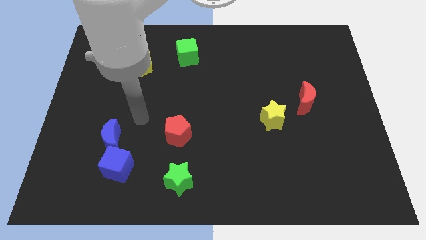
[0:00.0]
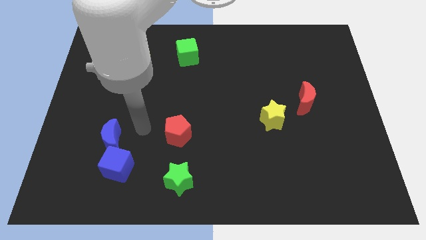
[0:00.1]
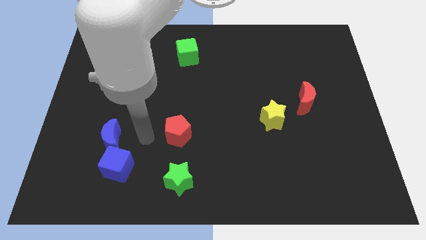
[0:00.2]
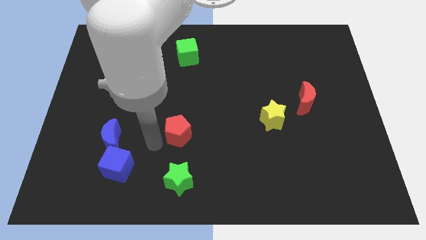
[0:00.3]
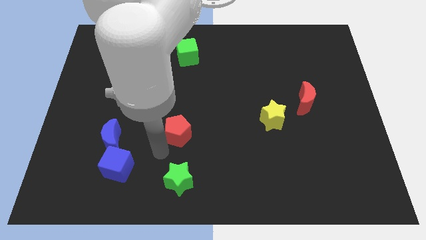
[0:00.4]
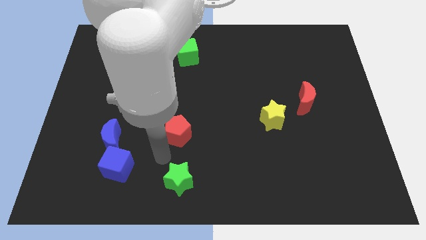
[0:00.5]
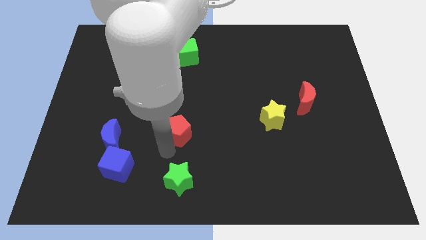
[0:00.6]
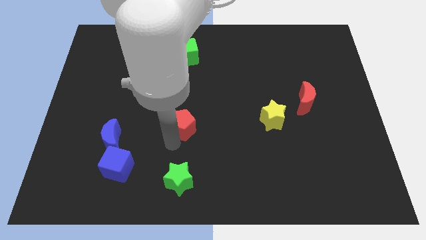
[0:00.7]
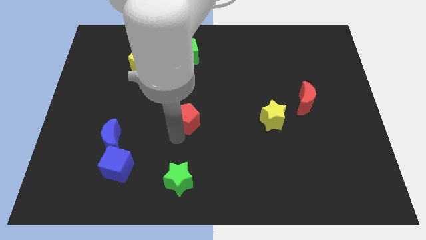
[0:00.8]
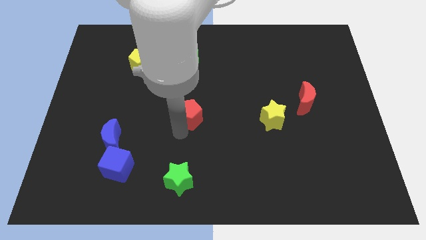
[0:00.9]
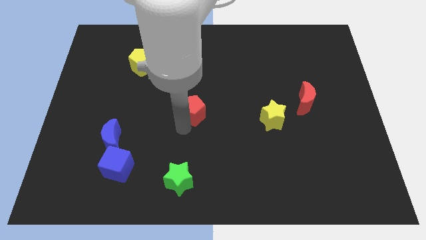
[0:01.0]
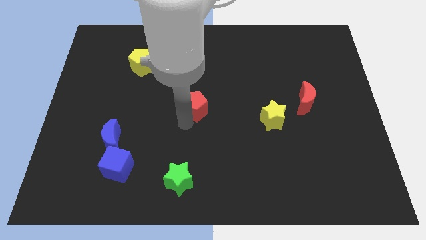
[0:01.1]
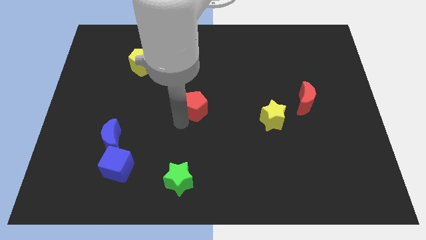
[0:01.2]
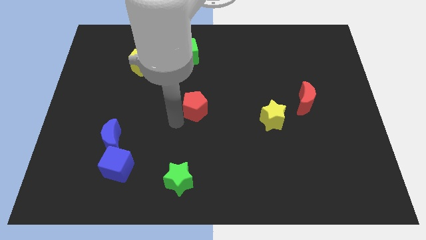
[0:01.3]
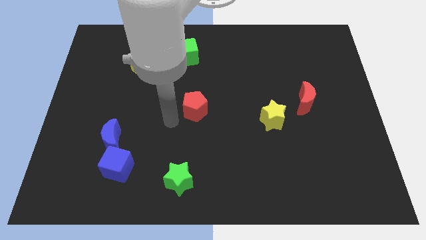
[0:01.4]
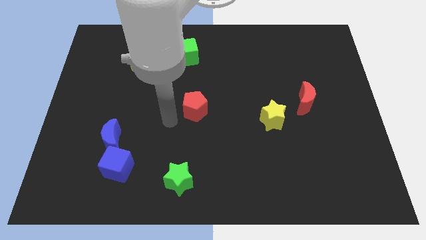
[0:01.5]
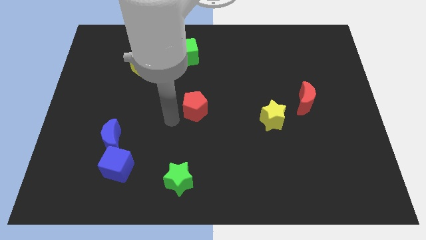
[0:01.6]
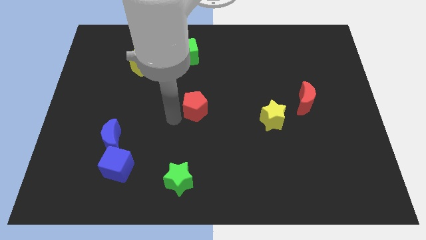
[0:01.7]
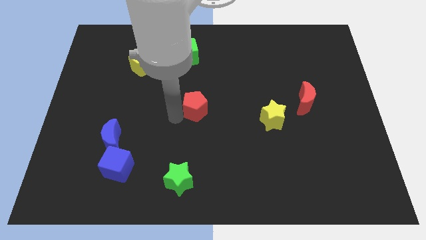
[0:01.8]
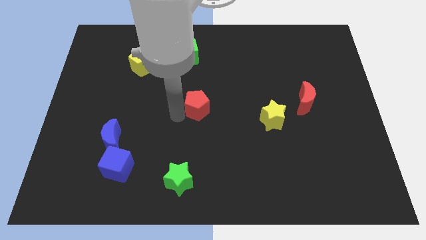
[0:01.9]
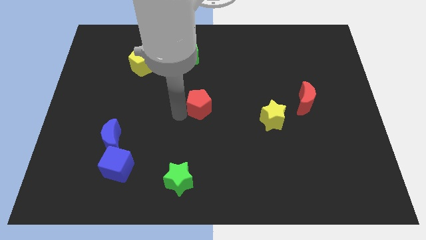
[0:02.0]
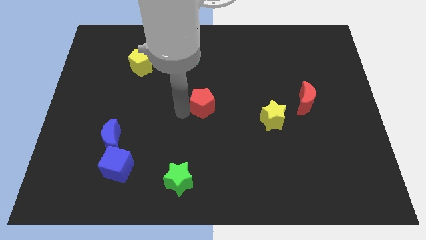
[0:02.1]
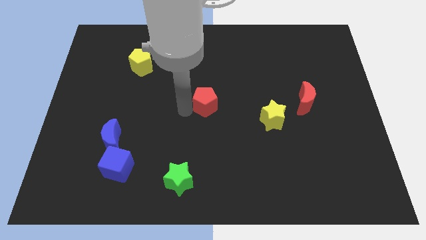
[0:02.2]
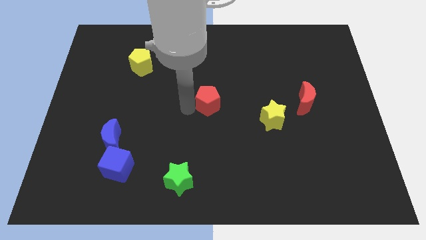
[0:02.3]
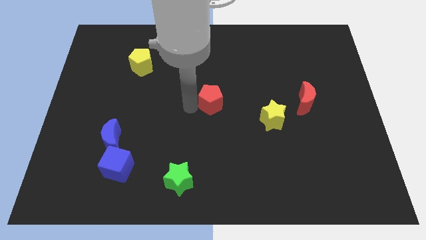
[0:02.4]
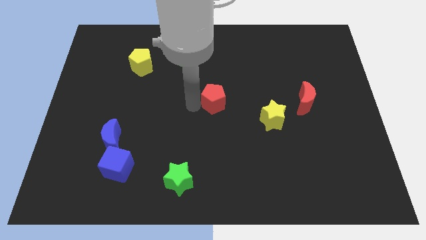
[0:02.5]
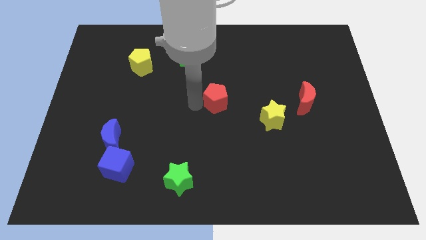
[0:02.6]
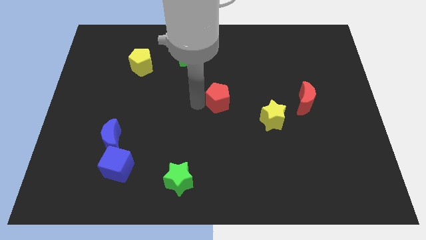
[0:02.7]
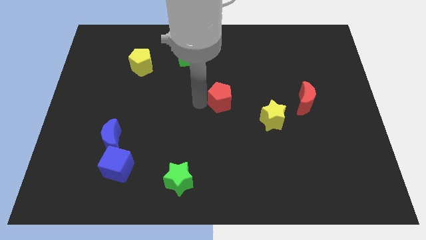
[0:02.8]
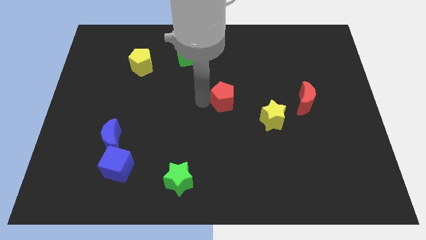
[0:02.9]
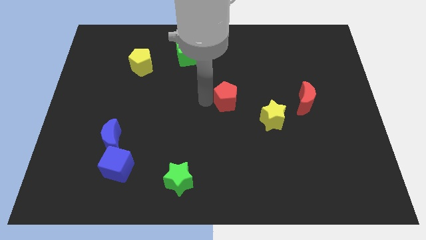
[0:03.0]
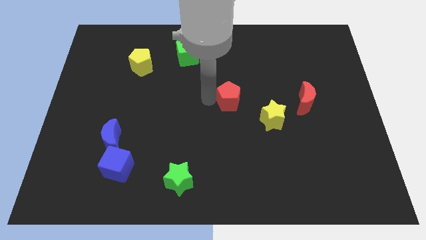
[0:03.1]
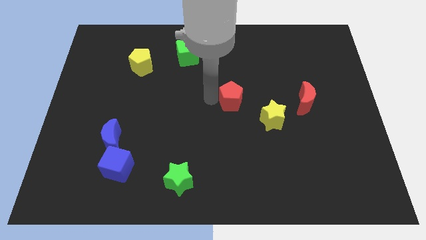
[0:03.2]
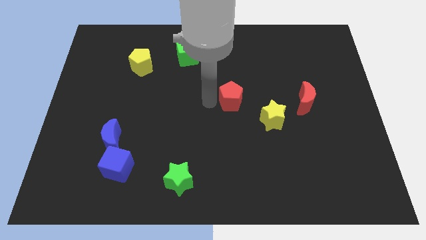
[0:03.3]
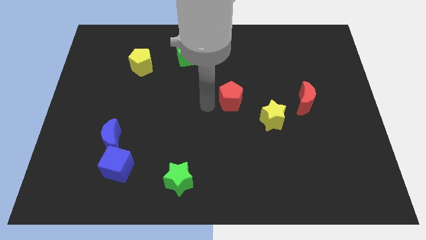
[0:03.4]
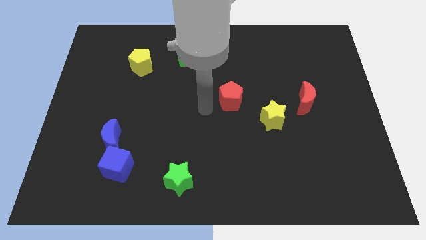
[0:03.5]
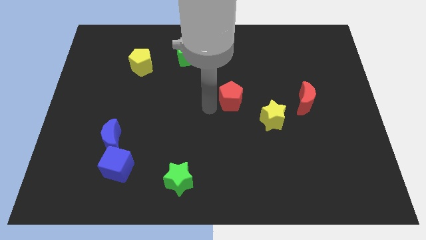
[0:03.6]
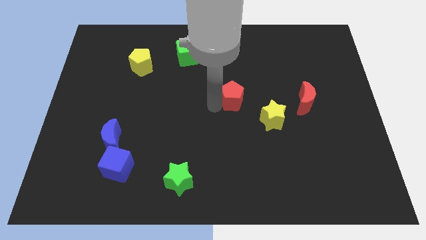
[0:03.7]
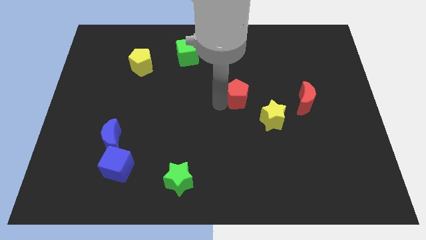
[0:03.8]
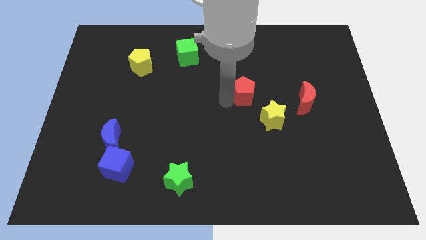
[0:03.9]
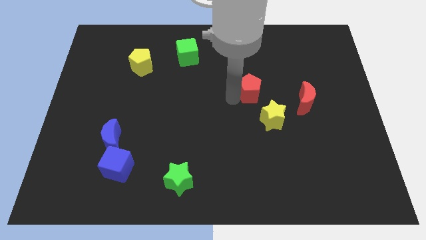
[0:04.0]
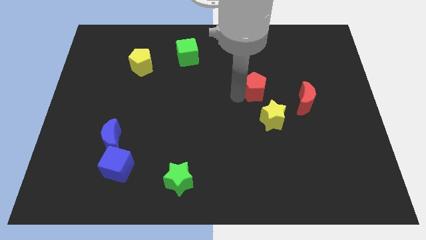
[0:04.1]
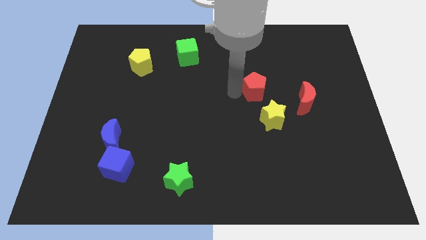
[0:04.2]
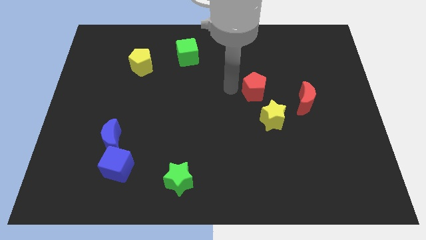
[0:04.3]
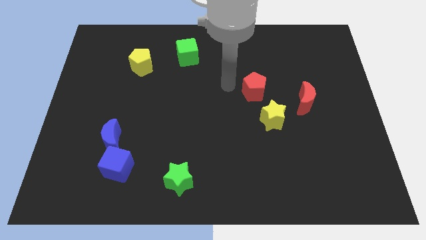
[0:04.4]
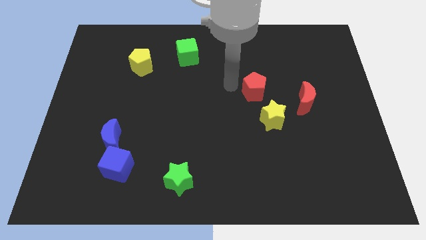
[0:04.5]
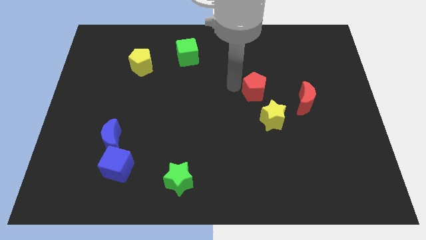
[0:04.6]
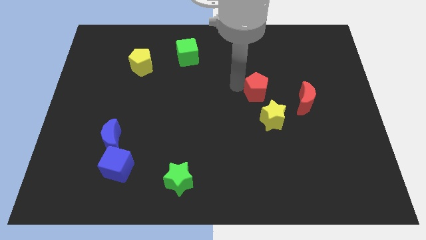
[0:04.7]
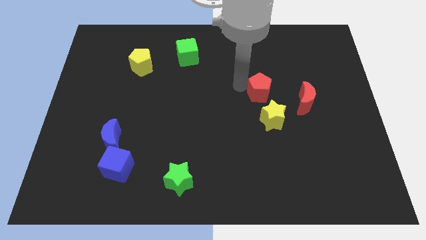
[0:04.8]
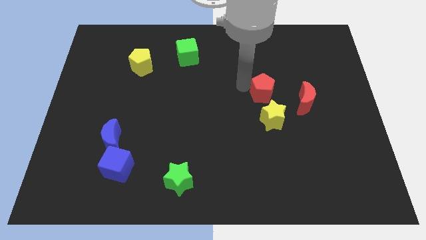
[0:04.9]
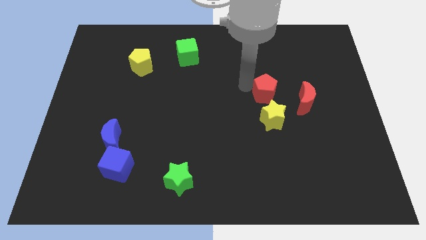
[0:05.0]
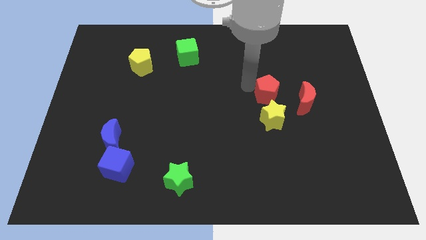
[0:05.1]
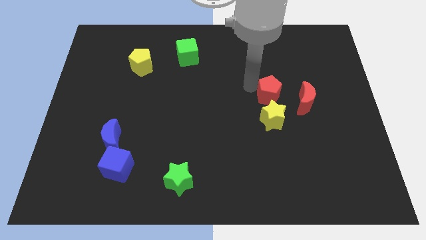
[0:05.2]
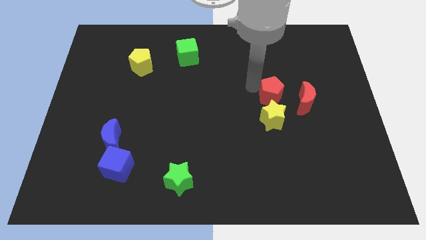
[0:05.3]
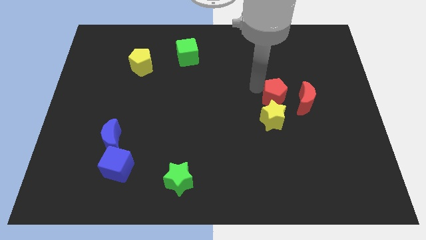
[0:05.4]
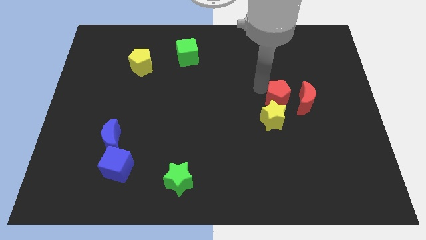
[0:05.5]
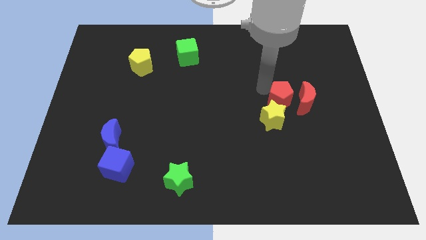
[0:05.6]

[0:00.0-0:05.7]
move the red pentagon next to the red moon

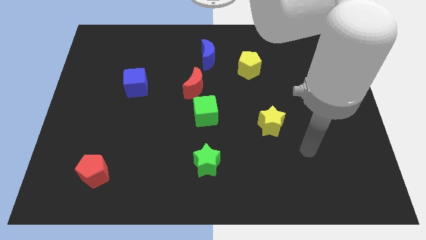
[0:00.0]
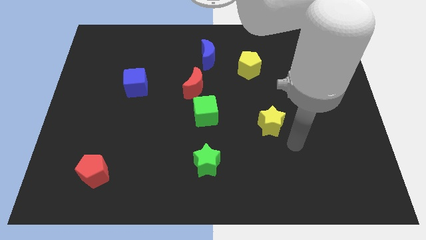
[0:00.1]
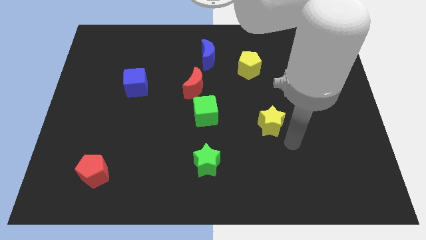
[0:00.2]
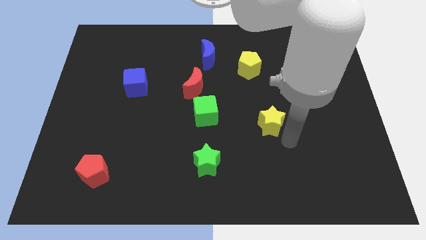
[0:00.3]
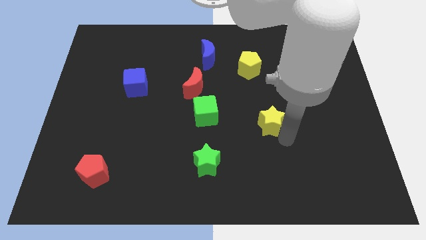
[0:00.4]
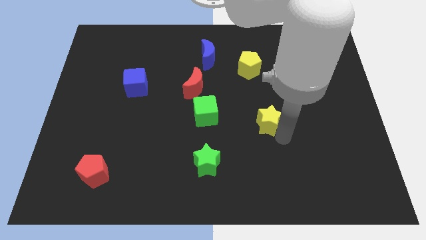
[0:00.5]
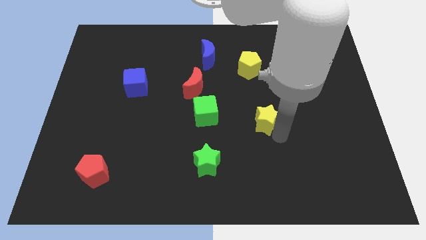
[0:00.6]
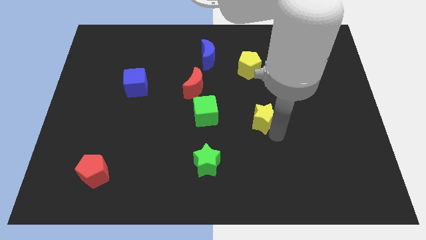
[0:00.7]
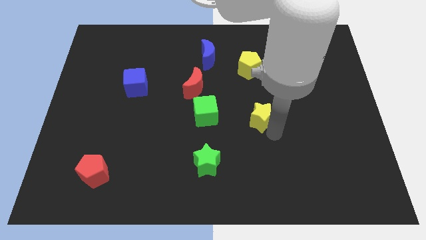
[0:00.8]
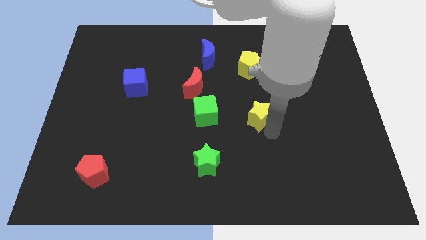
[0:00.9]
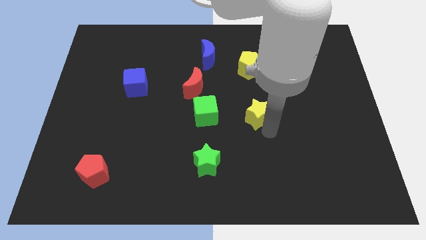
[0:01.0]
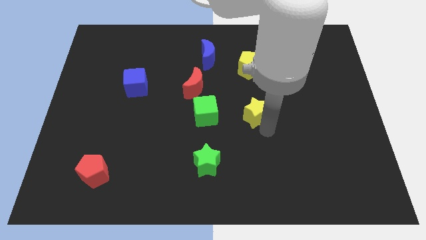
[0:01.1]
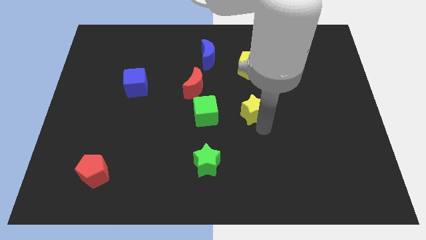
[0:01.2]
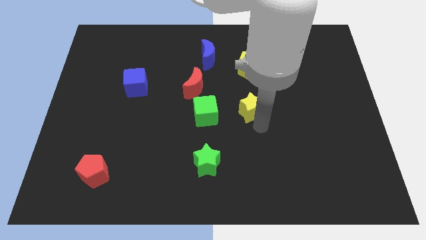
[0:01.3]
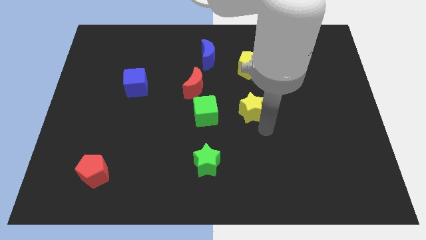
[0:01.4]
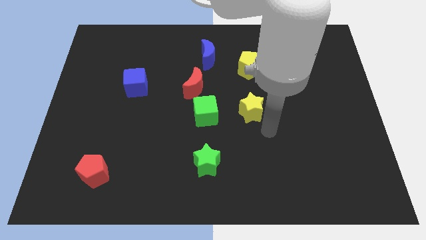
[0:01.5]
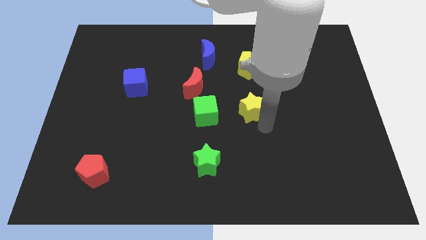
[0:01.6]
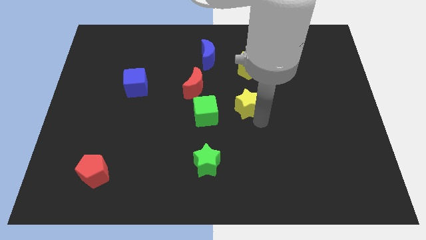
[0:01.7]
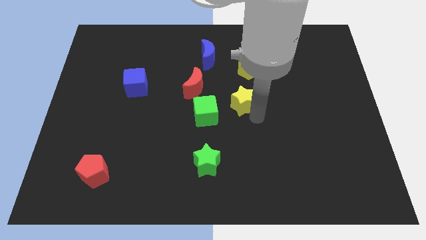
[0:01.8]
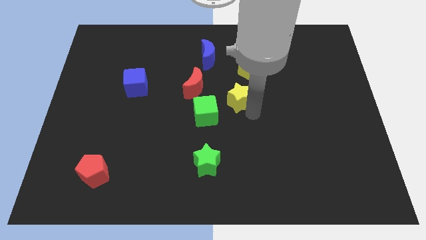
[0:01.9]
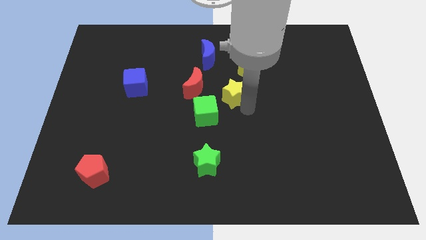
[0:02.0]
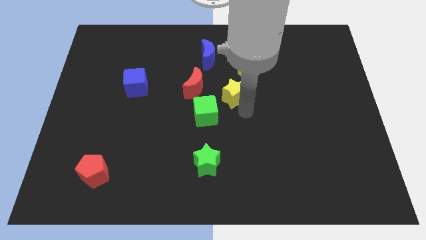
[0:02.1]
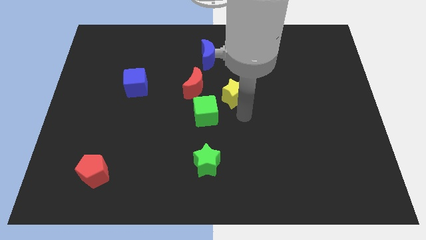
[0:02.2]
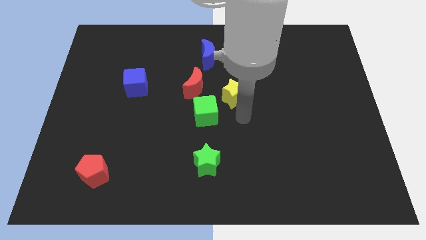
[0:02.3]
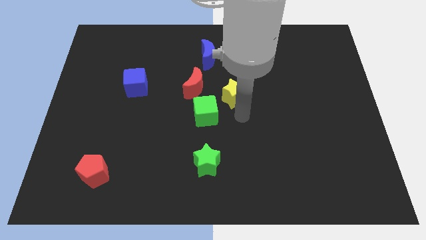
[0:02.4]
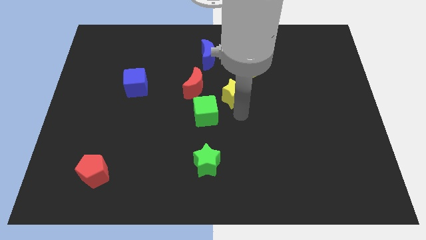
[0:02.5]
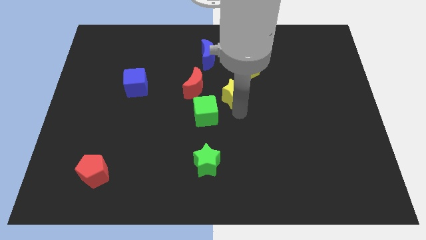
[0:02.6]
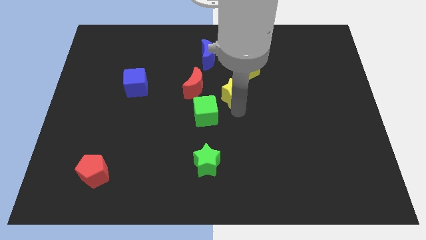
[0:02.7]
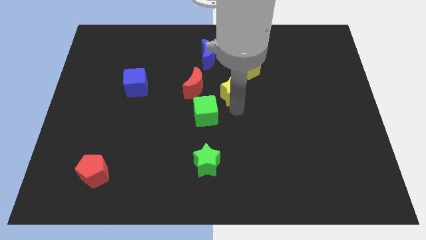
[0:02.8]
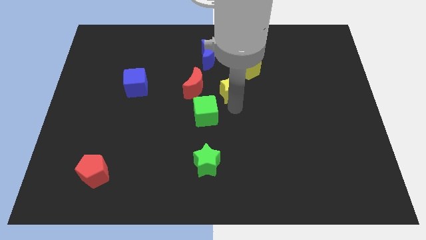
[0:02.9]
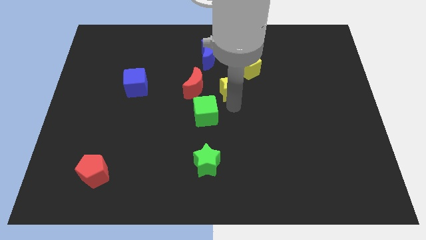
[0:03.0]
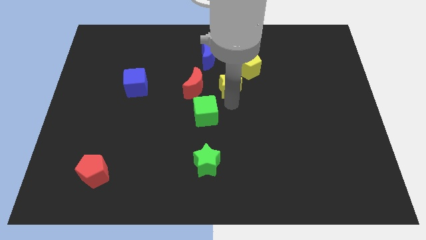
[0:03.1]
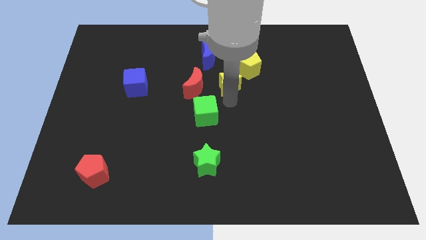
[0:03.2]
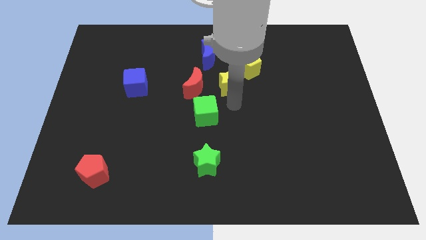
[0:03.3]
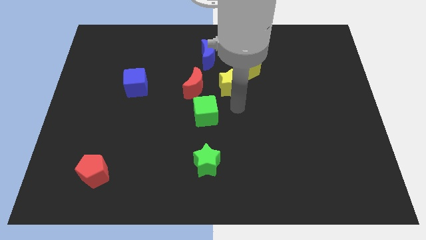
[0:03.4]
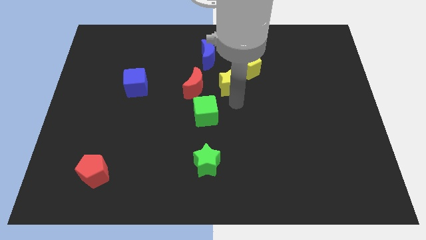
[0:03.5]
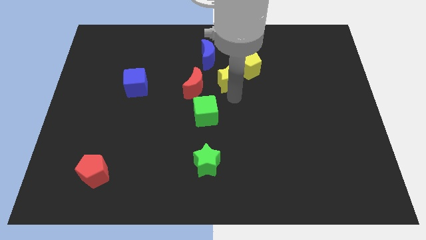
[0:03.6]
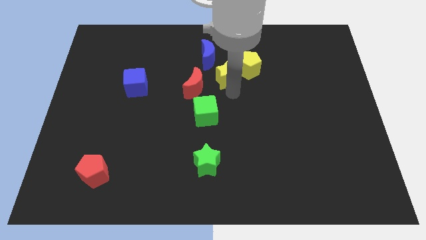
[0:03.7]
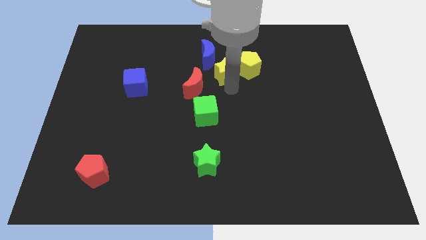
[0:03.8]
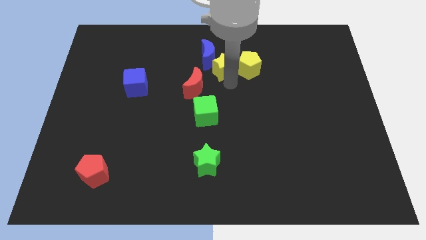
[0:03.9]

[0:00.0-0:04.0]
move the yellow star close to the blue moon
